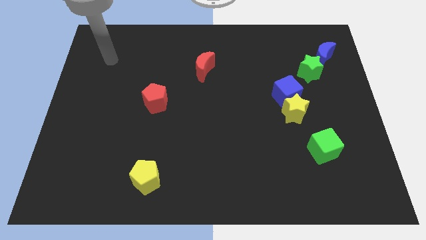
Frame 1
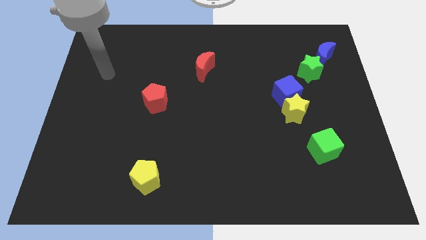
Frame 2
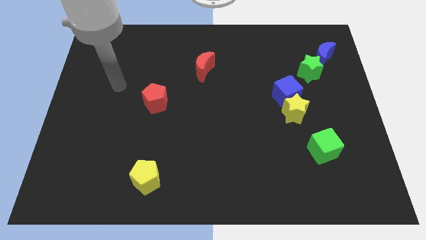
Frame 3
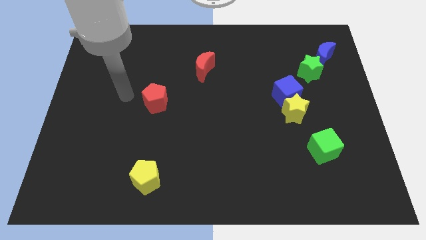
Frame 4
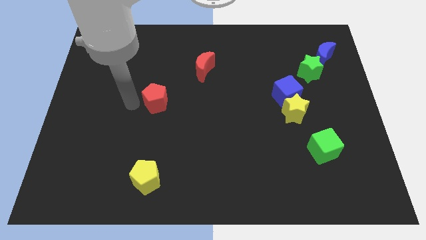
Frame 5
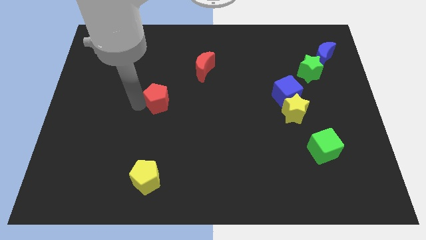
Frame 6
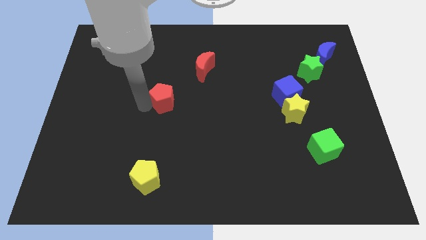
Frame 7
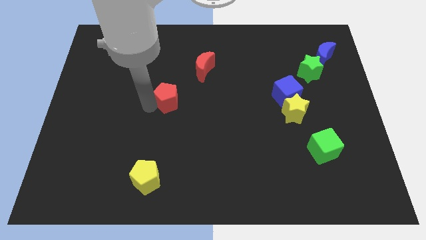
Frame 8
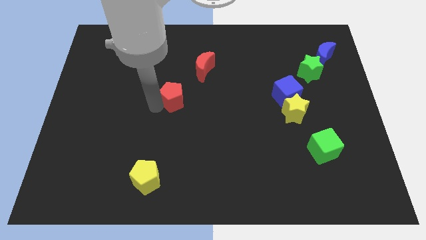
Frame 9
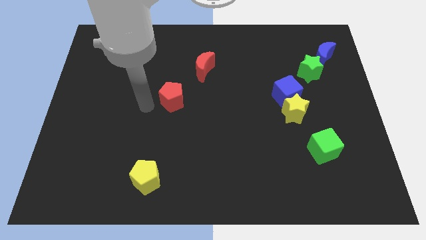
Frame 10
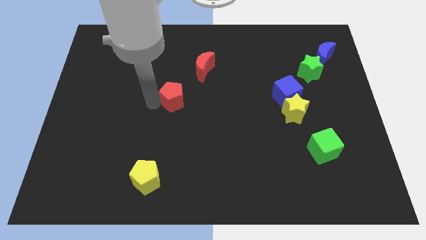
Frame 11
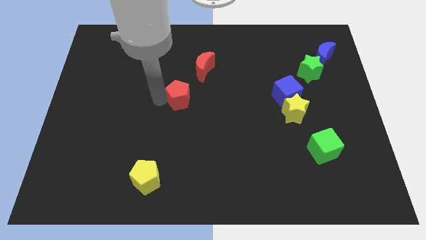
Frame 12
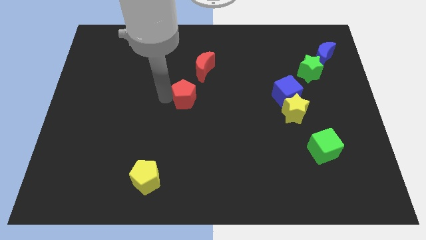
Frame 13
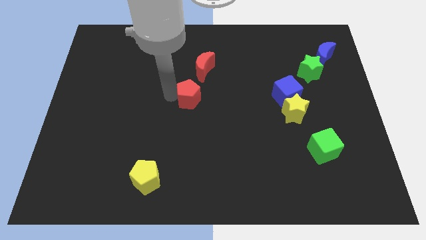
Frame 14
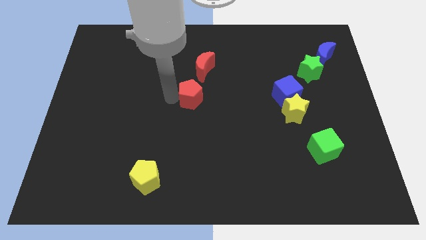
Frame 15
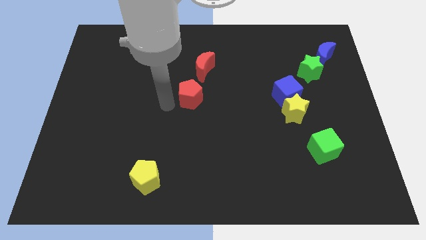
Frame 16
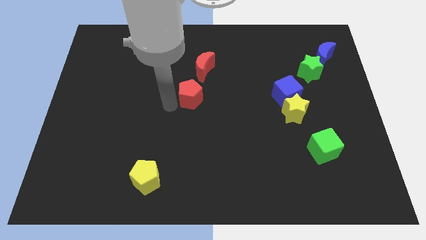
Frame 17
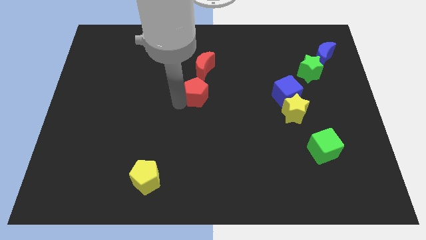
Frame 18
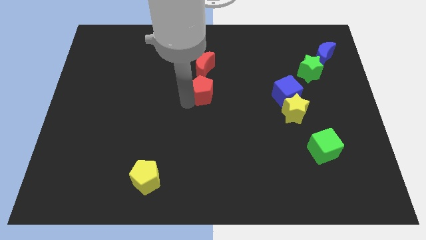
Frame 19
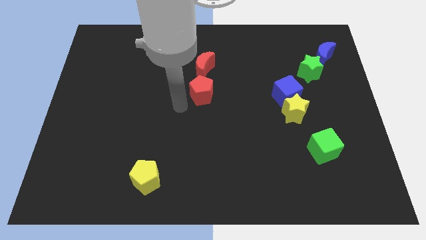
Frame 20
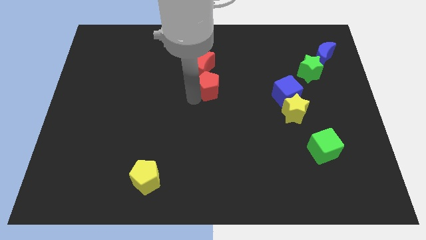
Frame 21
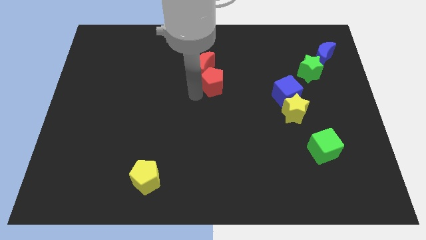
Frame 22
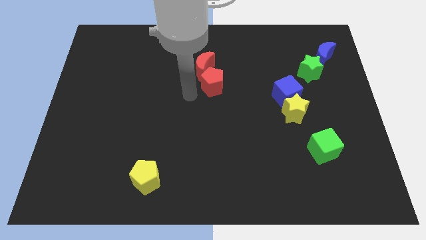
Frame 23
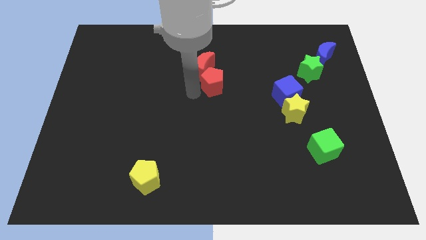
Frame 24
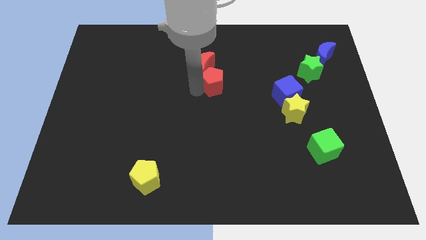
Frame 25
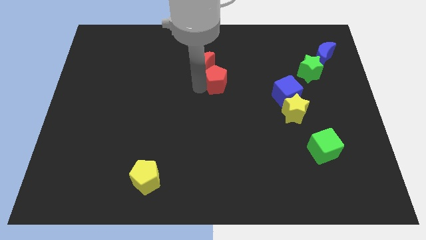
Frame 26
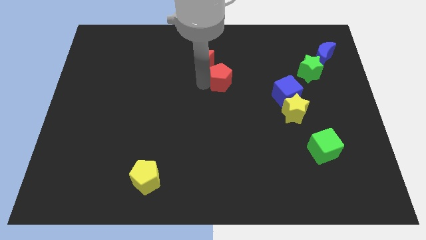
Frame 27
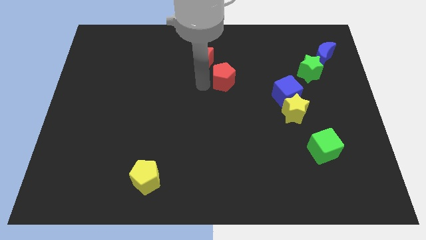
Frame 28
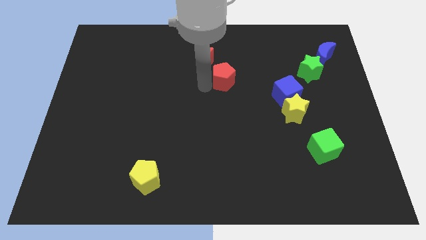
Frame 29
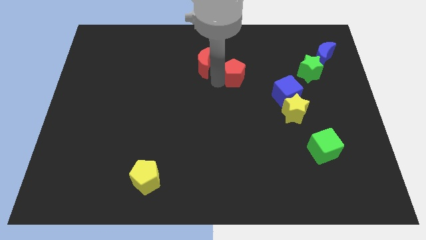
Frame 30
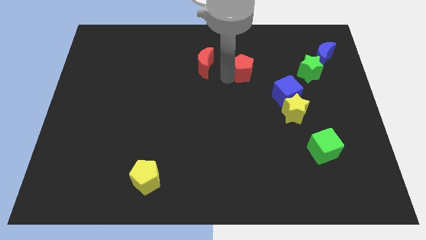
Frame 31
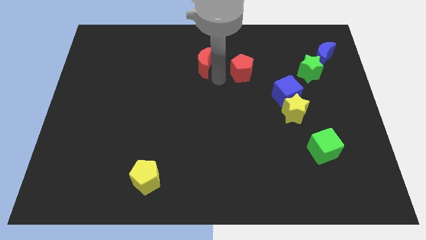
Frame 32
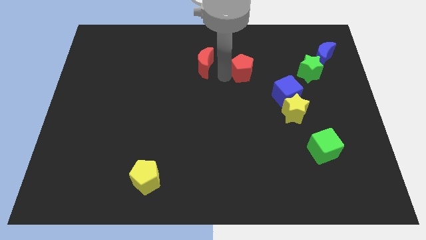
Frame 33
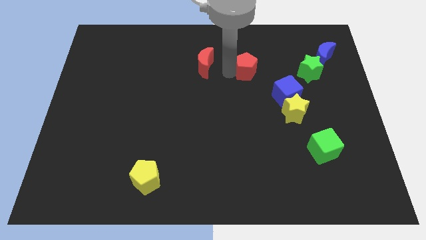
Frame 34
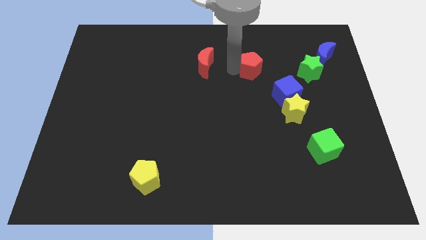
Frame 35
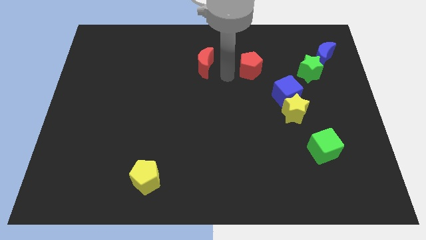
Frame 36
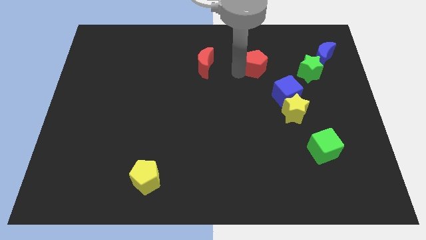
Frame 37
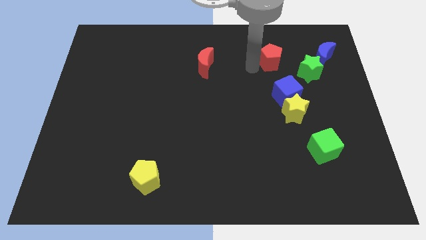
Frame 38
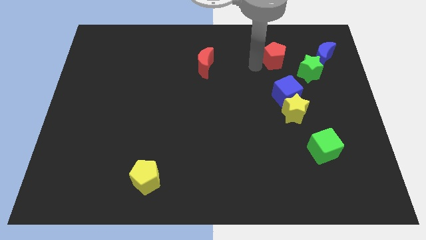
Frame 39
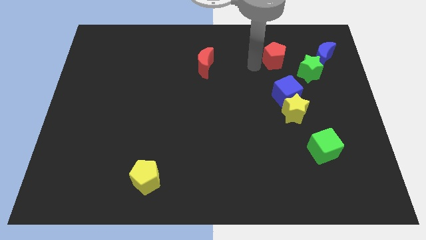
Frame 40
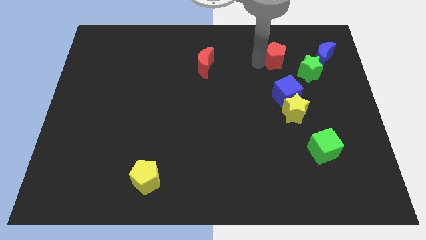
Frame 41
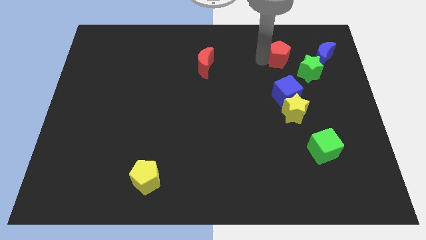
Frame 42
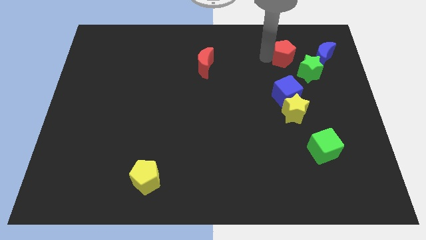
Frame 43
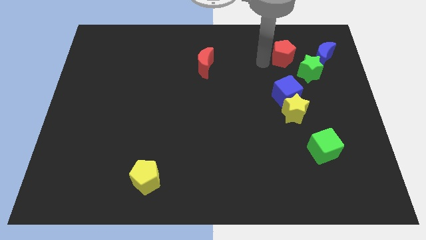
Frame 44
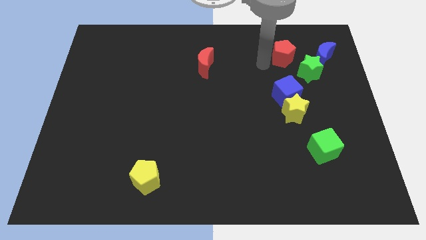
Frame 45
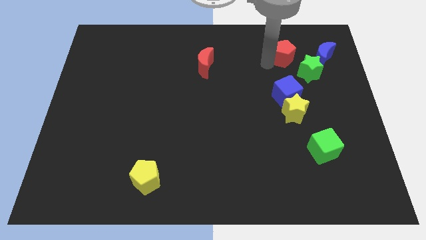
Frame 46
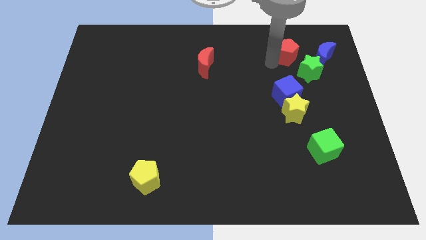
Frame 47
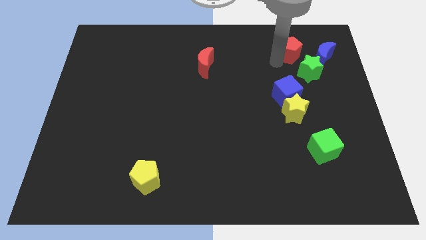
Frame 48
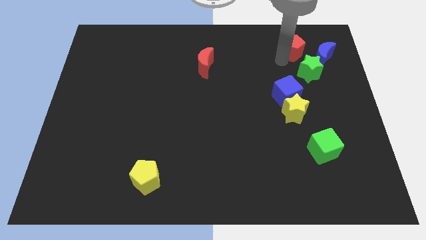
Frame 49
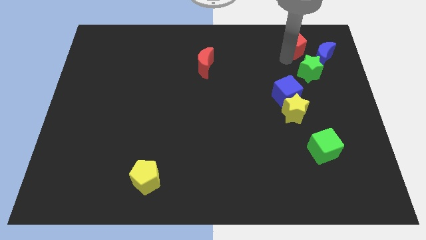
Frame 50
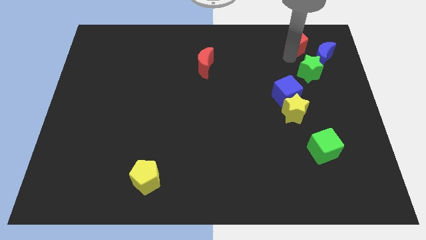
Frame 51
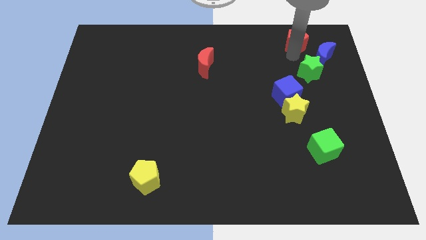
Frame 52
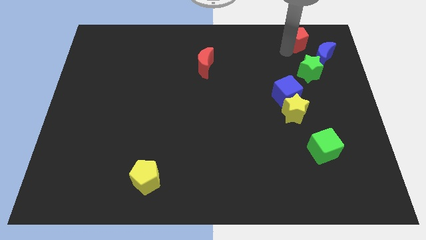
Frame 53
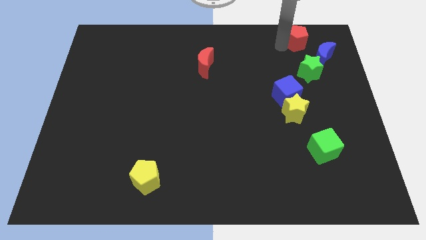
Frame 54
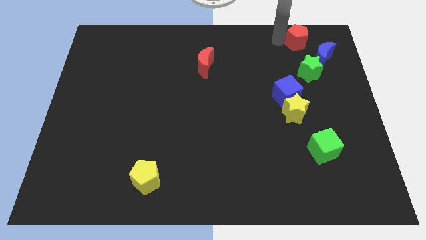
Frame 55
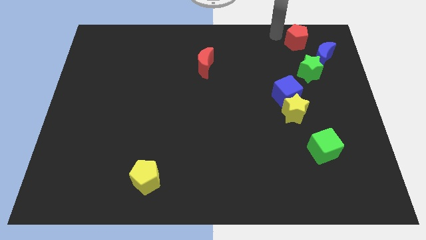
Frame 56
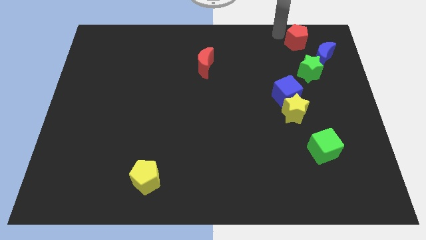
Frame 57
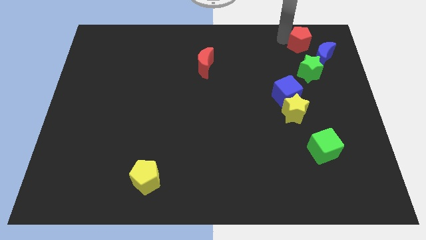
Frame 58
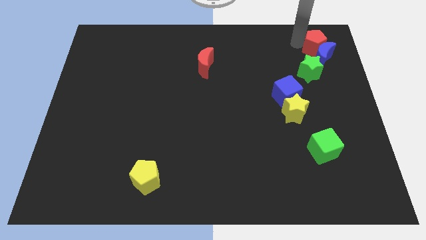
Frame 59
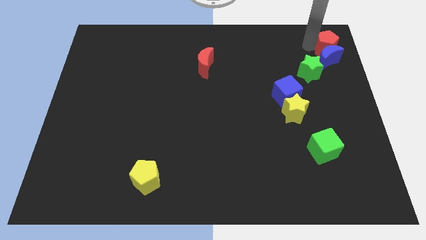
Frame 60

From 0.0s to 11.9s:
slide the red pentagon to the upper right corner
